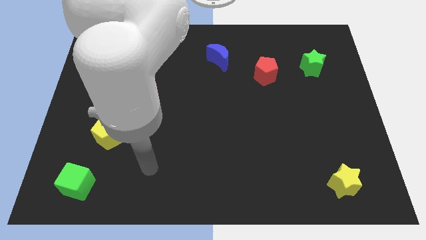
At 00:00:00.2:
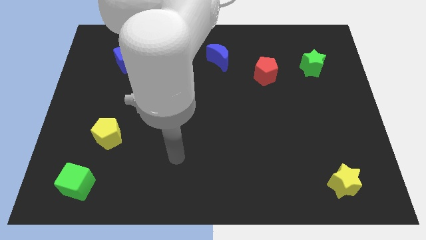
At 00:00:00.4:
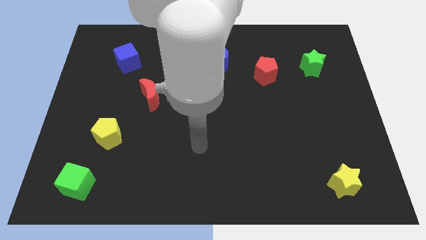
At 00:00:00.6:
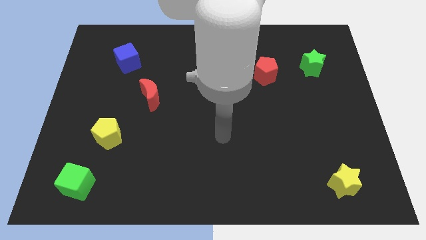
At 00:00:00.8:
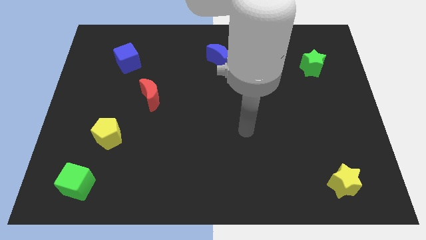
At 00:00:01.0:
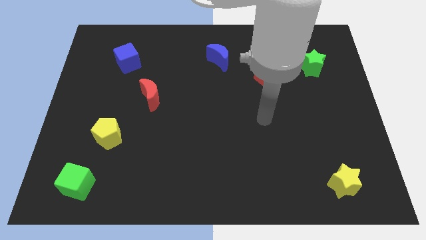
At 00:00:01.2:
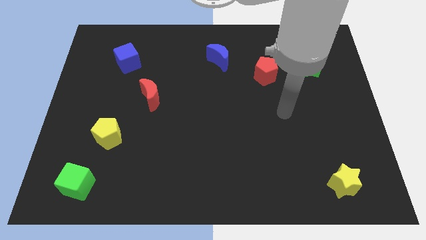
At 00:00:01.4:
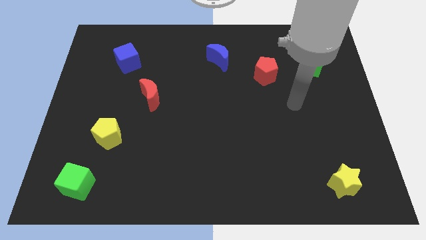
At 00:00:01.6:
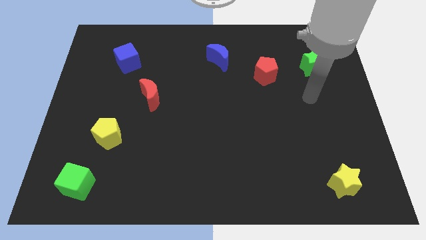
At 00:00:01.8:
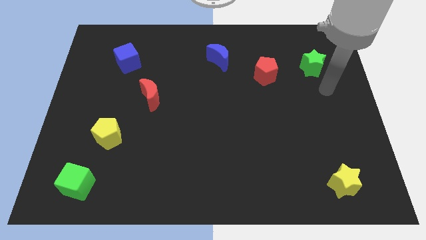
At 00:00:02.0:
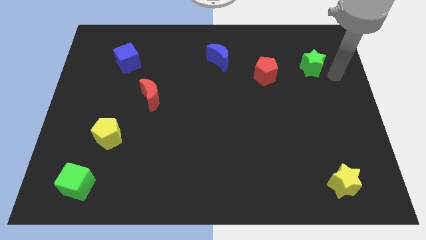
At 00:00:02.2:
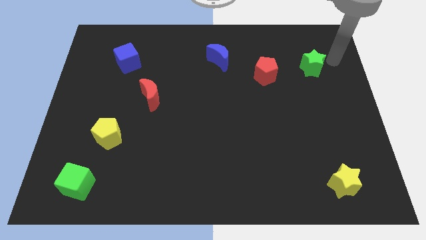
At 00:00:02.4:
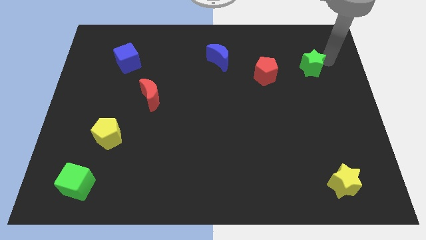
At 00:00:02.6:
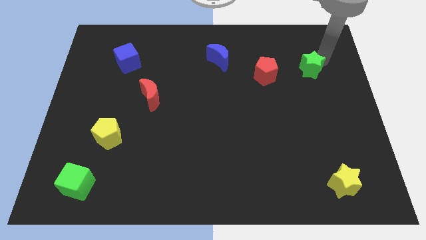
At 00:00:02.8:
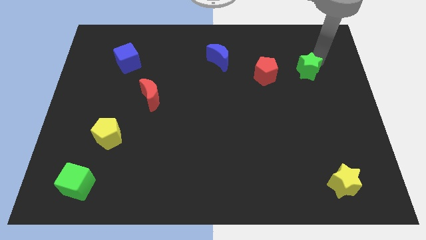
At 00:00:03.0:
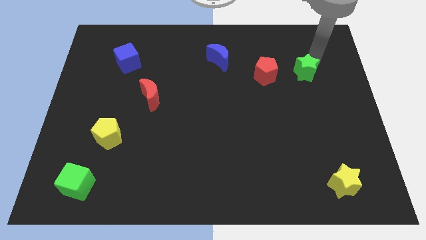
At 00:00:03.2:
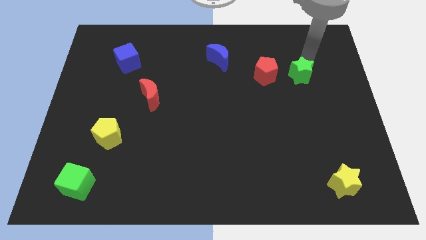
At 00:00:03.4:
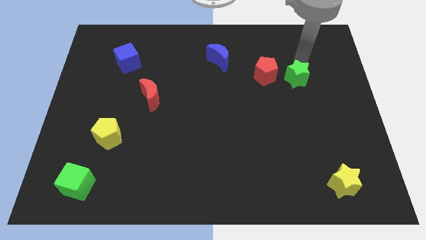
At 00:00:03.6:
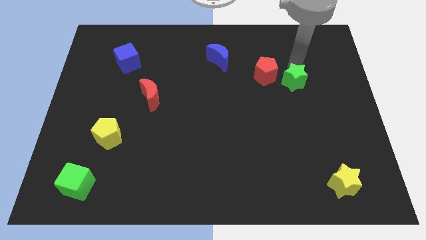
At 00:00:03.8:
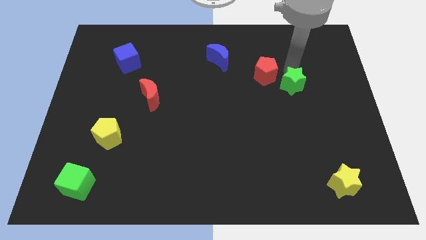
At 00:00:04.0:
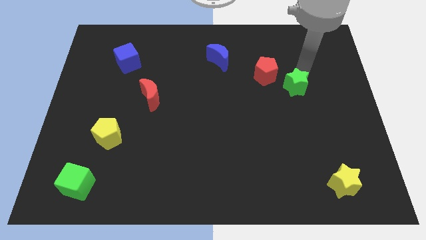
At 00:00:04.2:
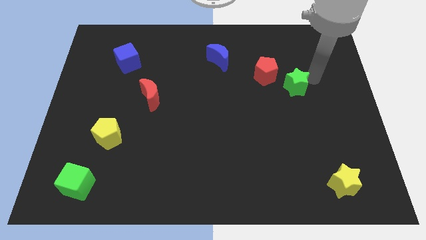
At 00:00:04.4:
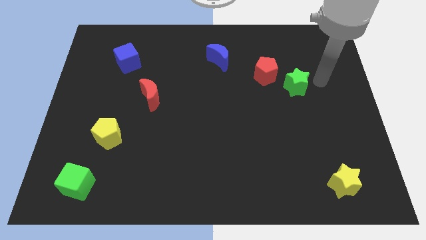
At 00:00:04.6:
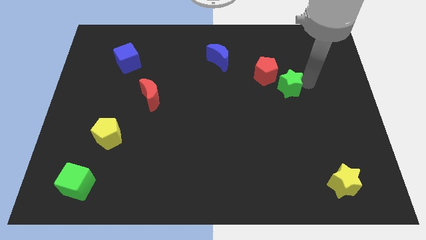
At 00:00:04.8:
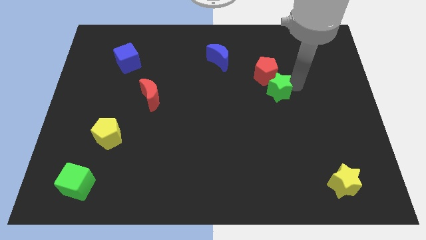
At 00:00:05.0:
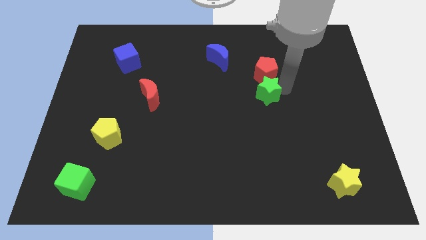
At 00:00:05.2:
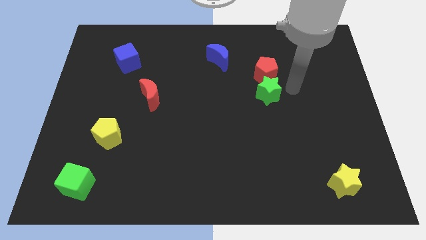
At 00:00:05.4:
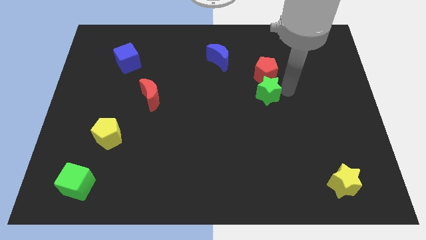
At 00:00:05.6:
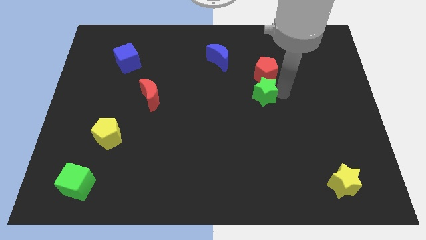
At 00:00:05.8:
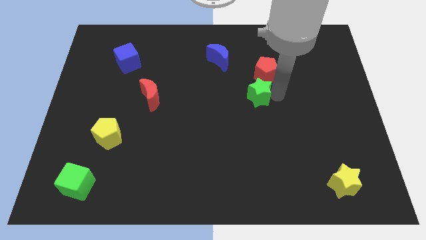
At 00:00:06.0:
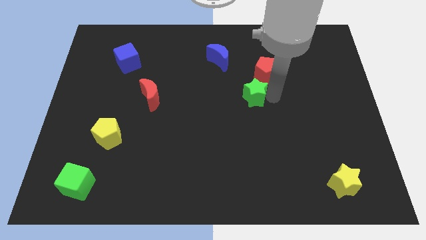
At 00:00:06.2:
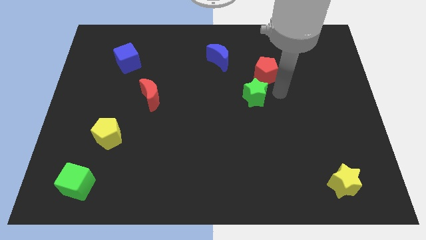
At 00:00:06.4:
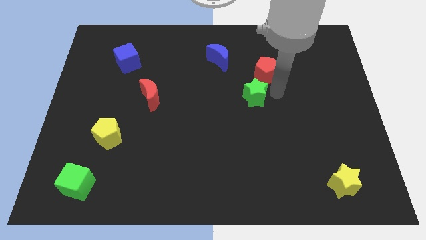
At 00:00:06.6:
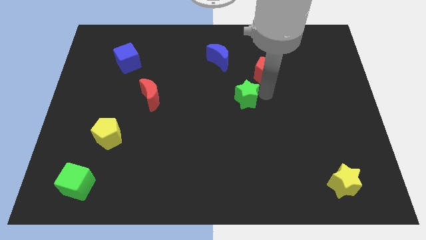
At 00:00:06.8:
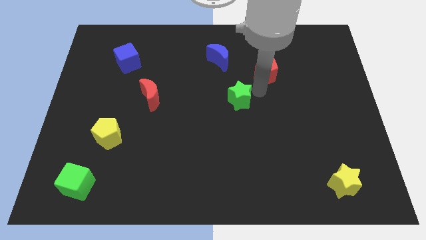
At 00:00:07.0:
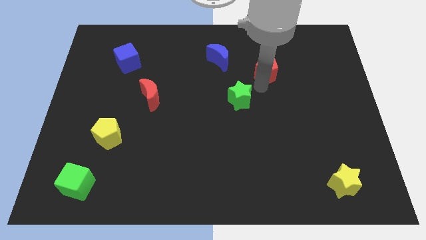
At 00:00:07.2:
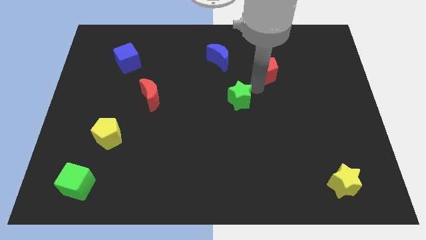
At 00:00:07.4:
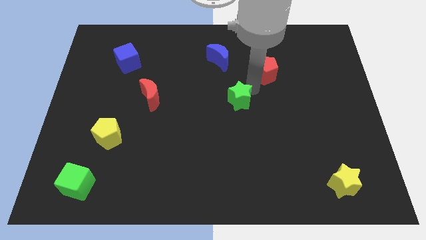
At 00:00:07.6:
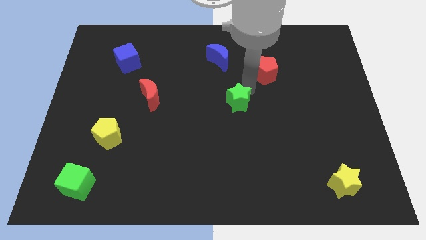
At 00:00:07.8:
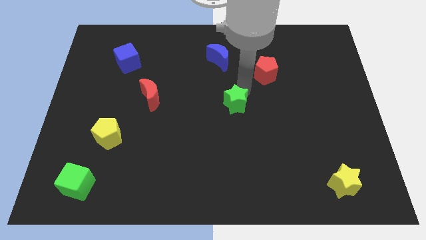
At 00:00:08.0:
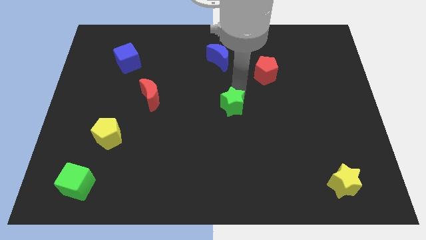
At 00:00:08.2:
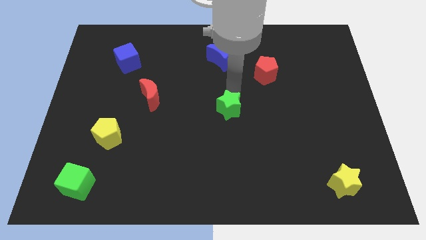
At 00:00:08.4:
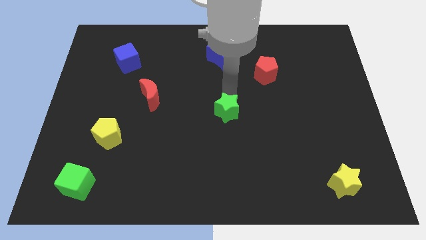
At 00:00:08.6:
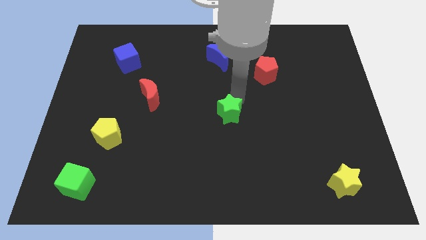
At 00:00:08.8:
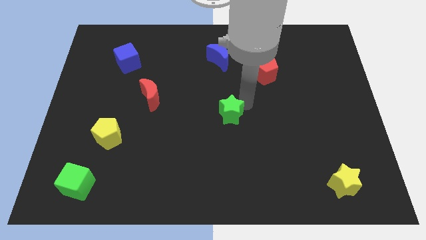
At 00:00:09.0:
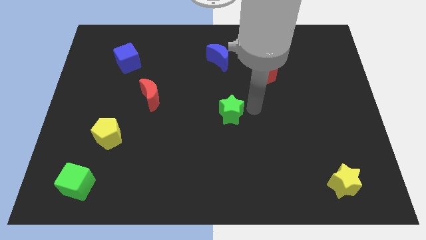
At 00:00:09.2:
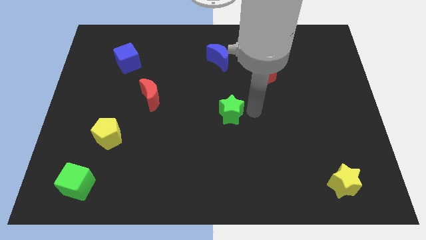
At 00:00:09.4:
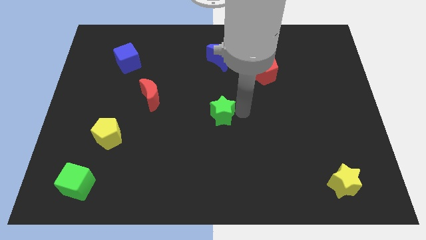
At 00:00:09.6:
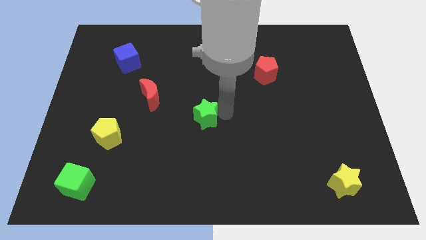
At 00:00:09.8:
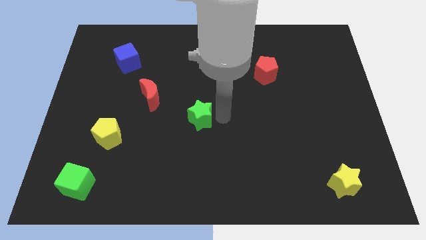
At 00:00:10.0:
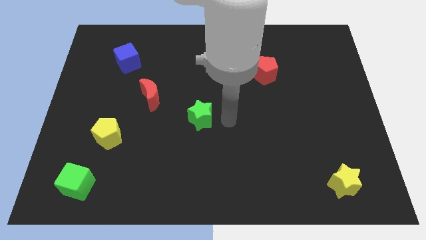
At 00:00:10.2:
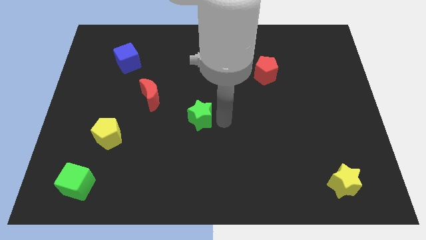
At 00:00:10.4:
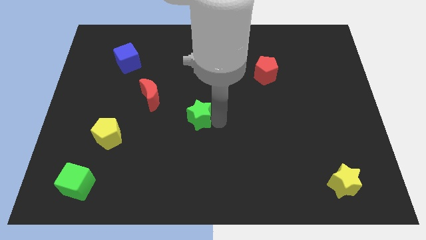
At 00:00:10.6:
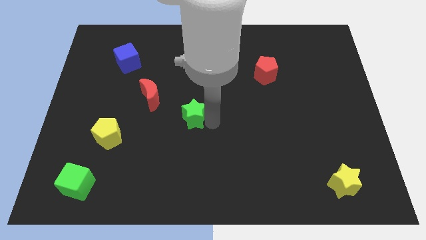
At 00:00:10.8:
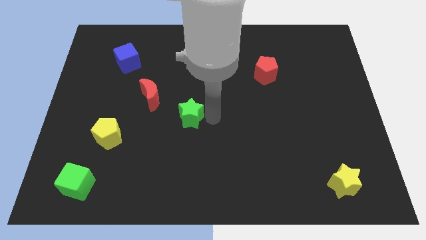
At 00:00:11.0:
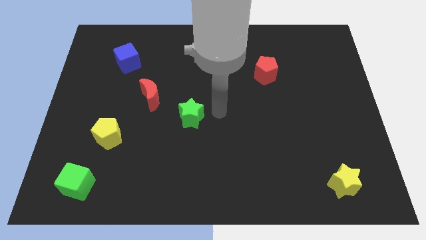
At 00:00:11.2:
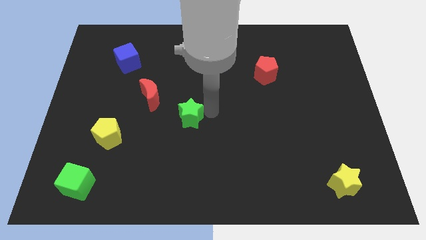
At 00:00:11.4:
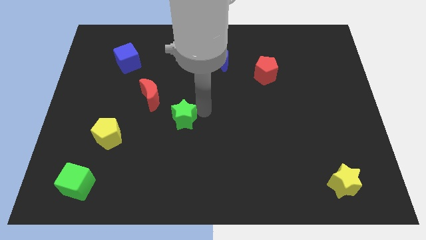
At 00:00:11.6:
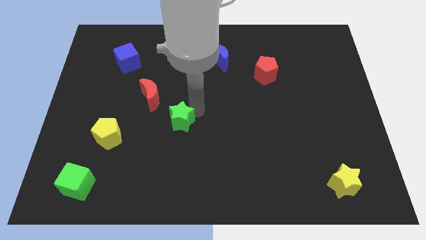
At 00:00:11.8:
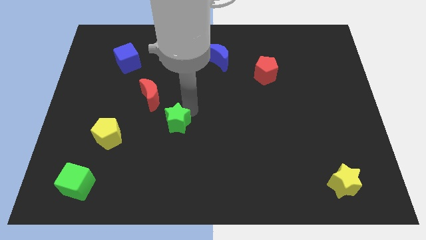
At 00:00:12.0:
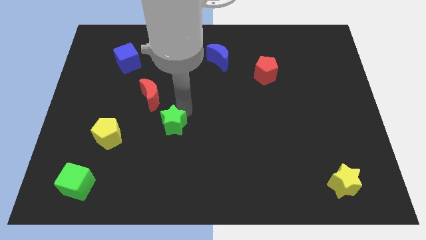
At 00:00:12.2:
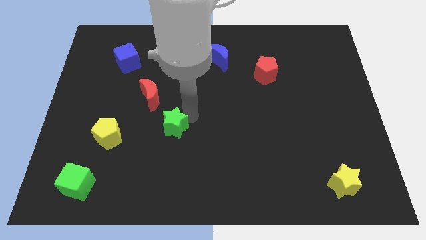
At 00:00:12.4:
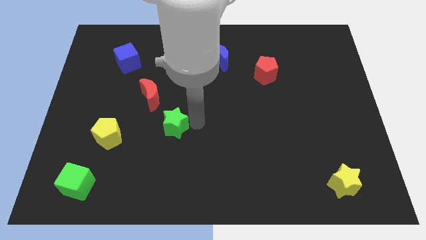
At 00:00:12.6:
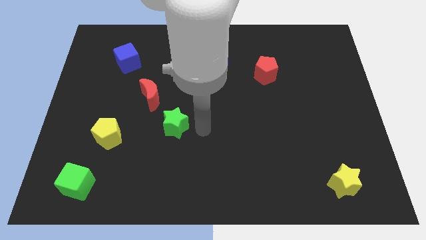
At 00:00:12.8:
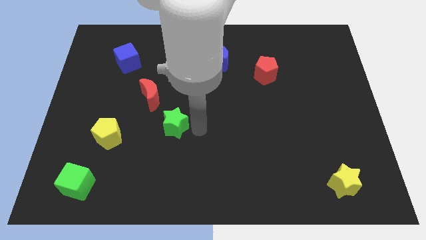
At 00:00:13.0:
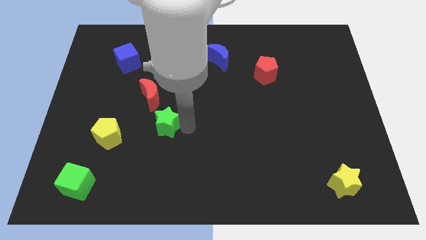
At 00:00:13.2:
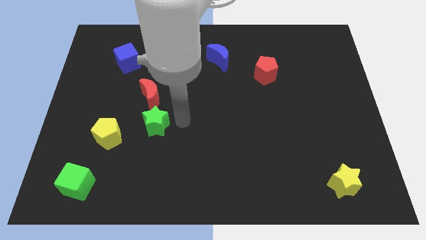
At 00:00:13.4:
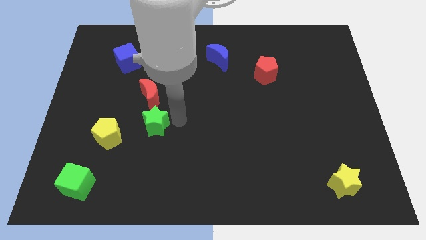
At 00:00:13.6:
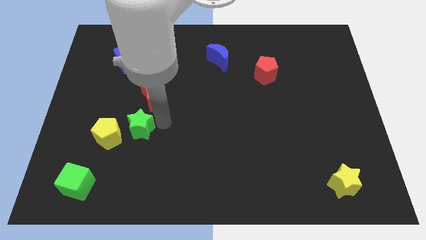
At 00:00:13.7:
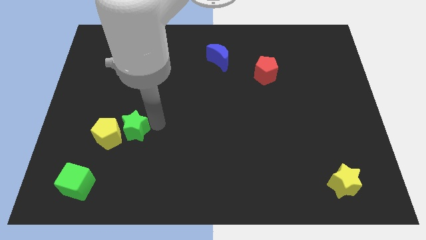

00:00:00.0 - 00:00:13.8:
push the green star next to the yellow pentagon
